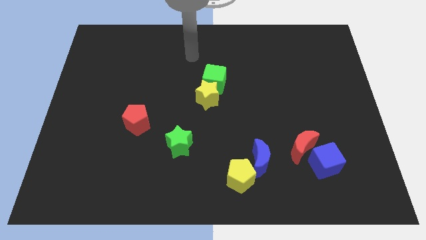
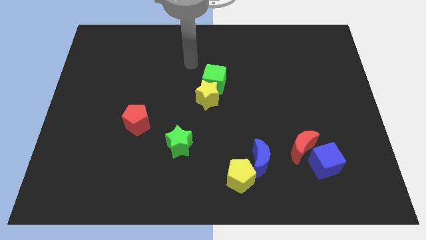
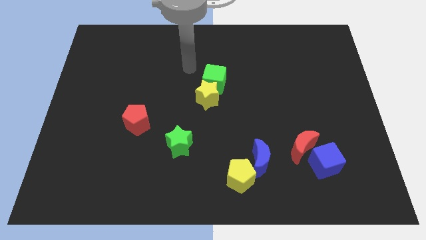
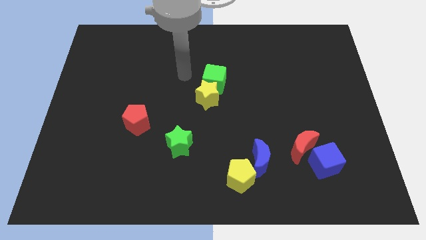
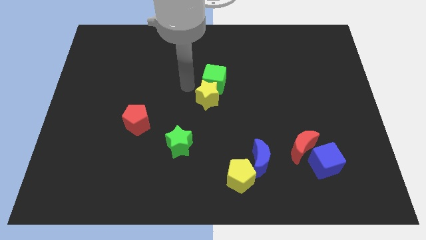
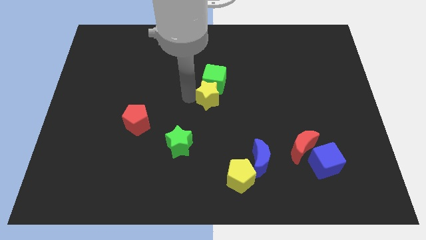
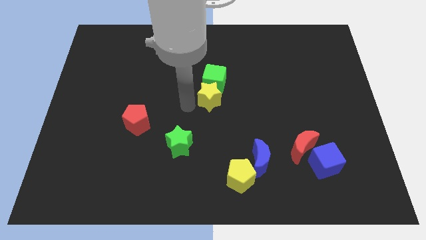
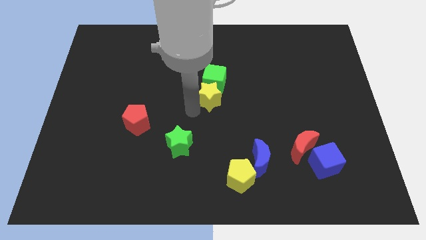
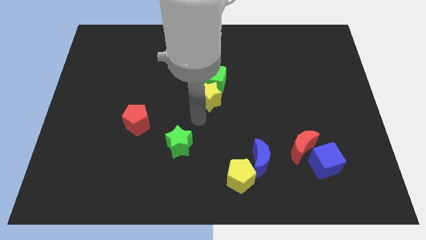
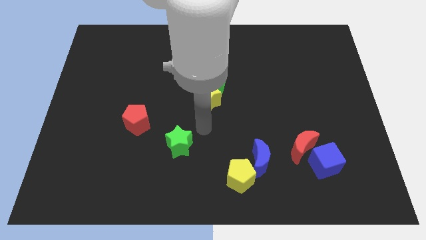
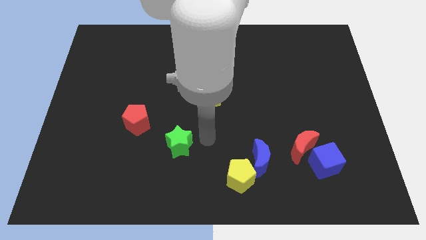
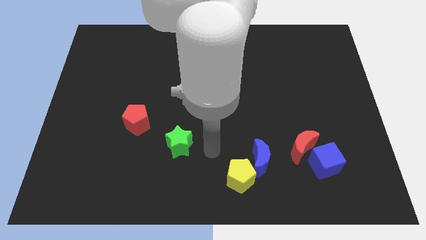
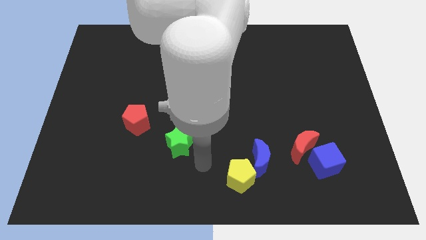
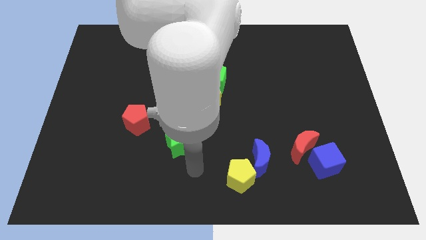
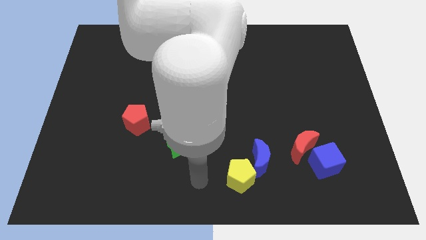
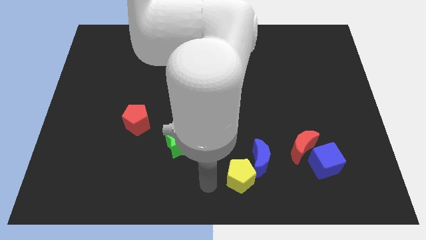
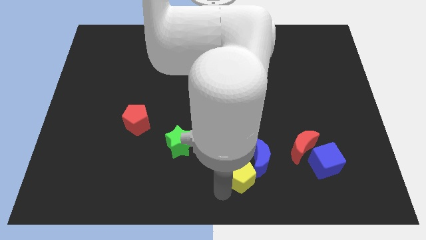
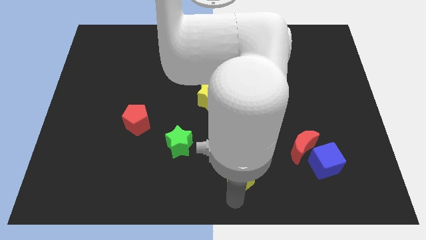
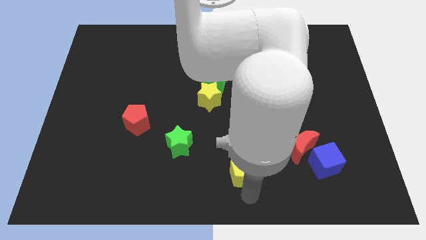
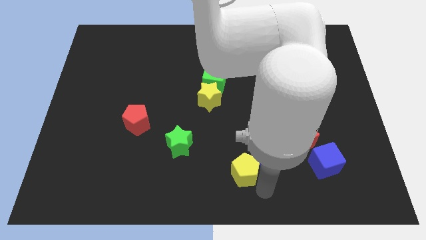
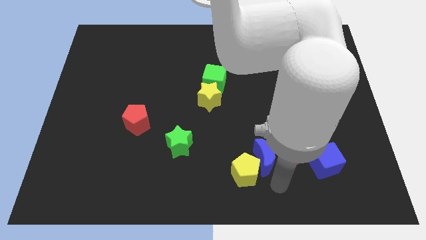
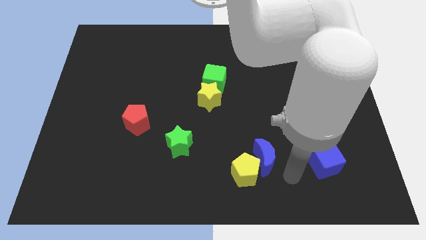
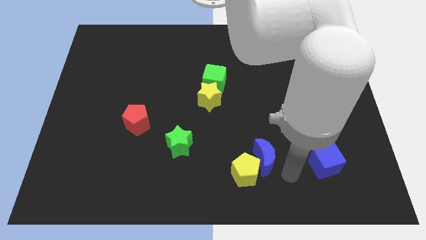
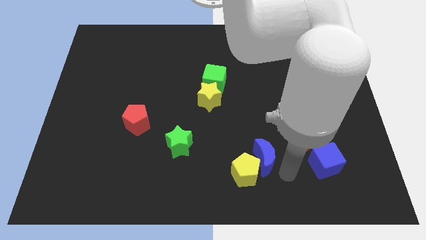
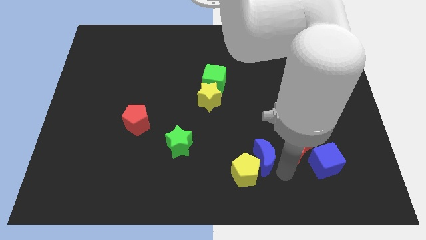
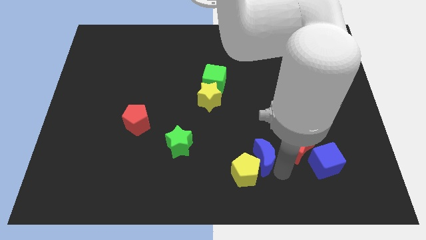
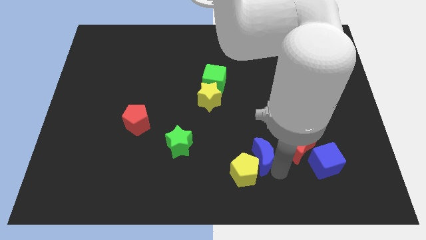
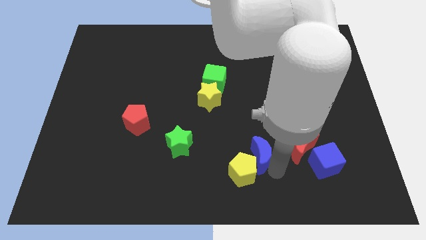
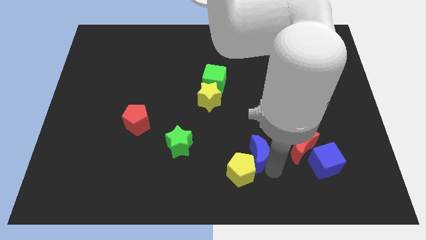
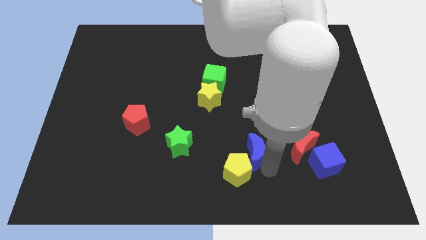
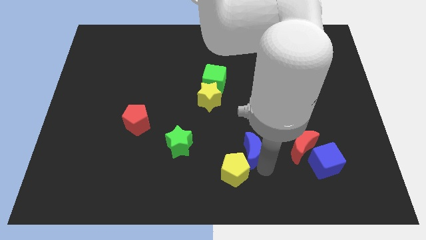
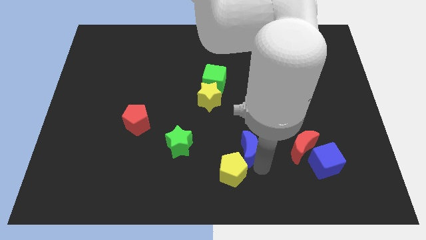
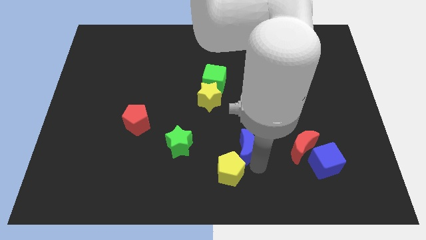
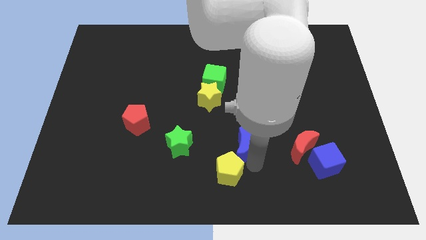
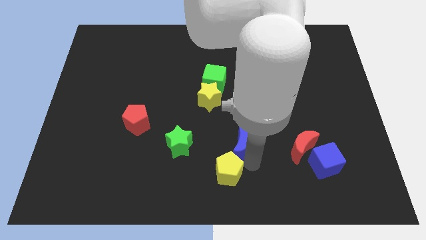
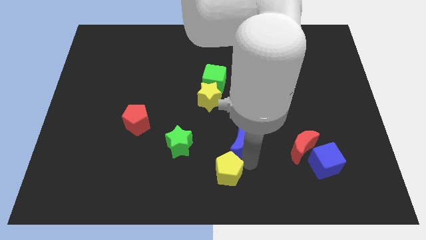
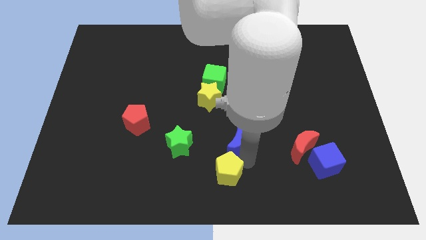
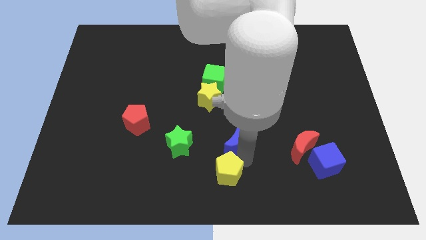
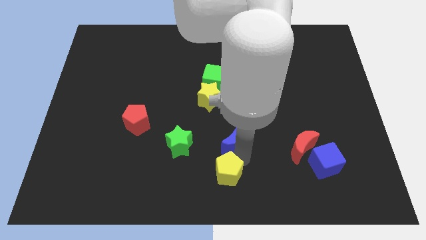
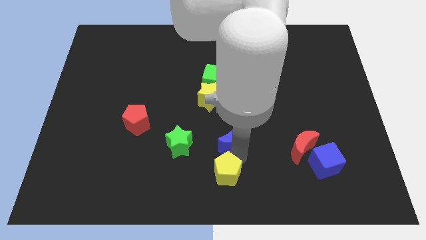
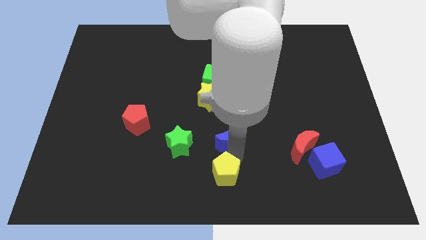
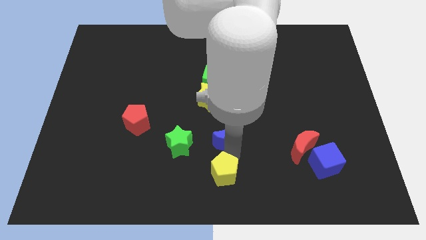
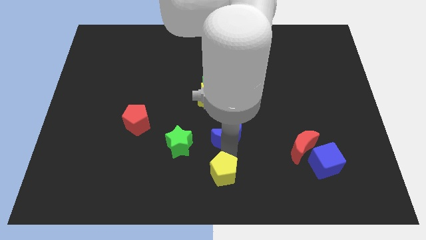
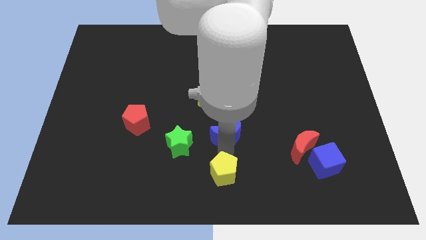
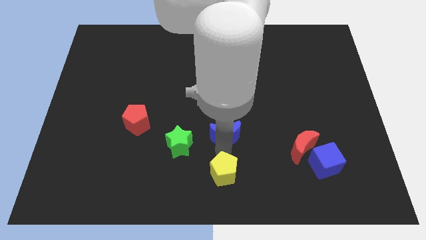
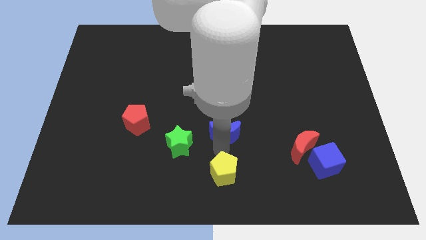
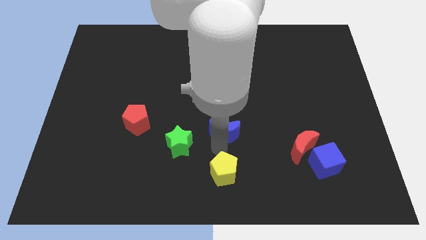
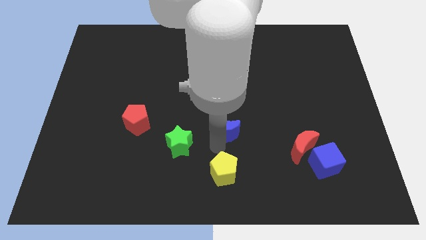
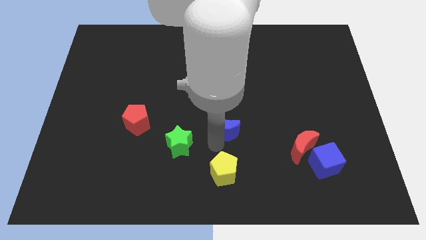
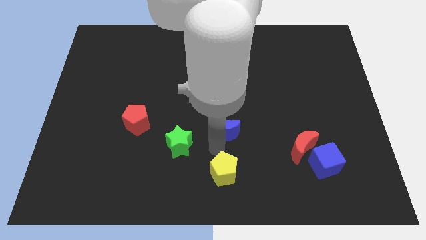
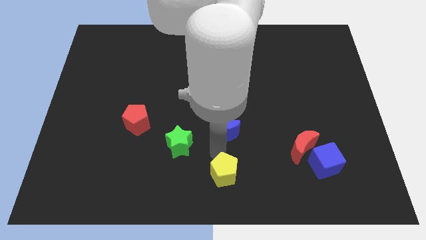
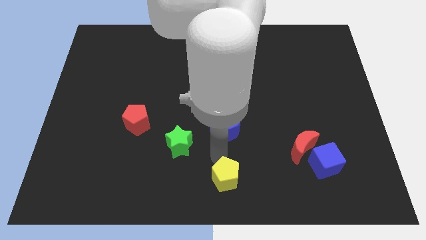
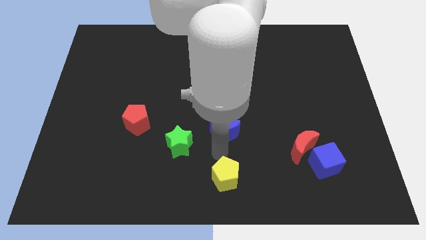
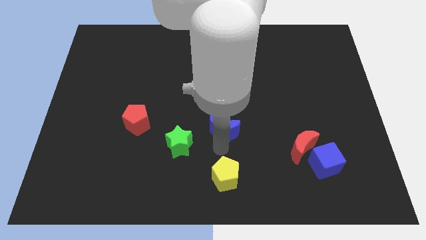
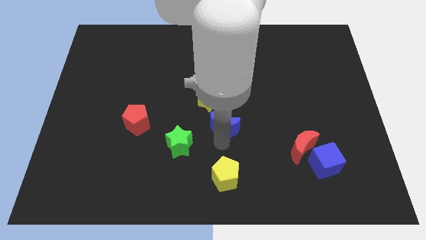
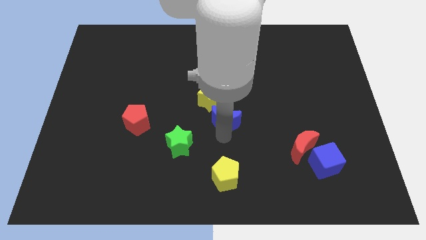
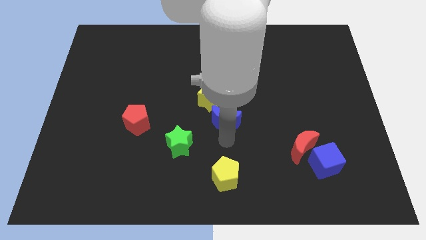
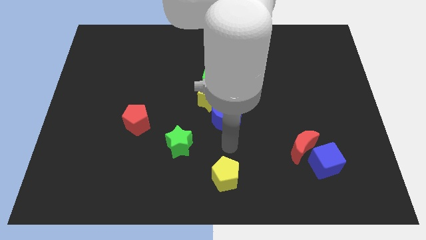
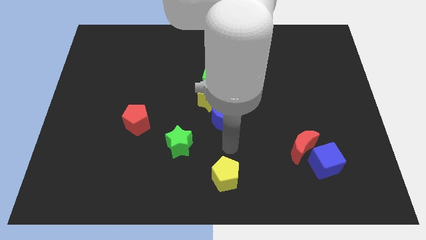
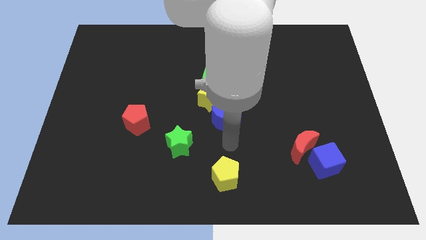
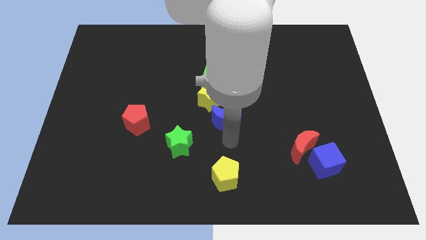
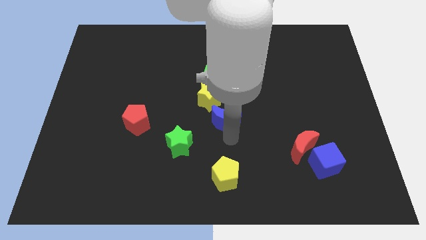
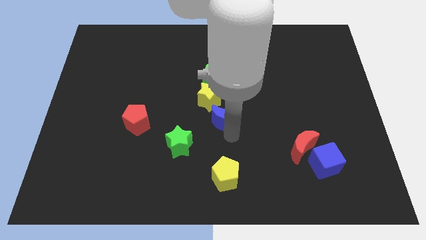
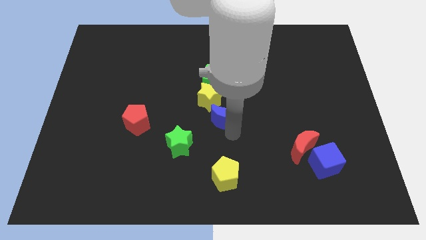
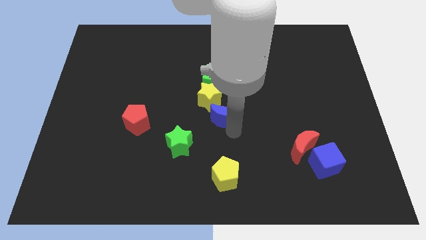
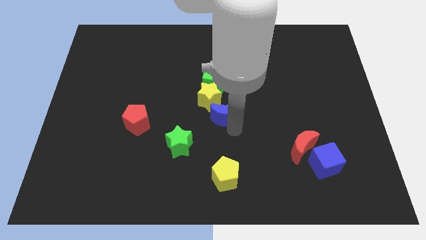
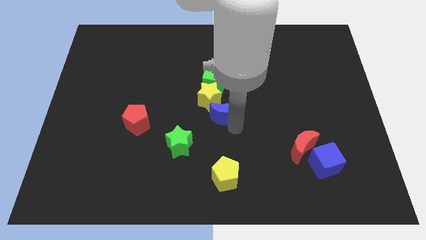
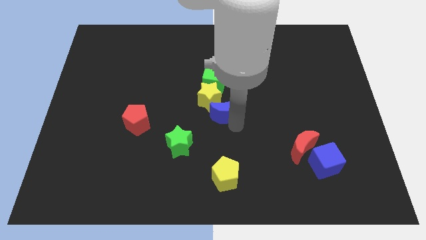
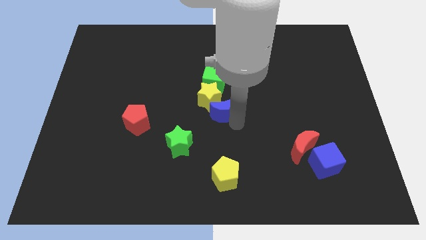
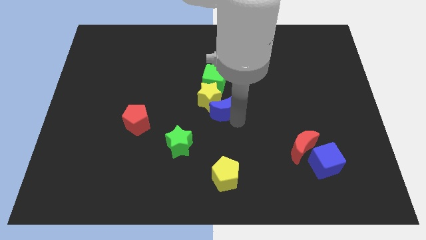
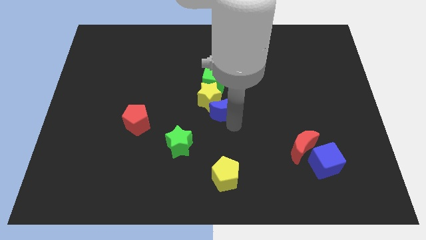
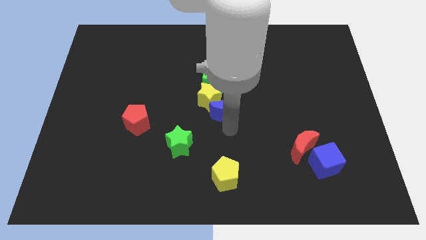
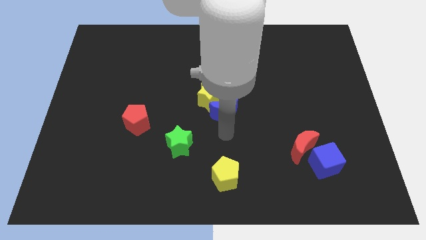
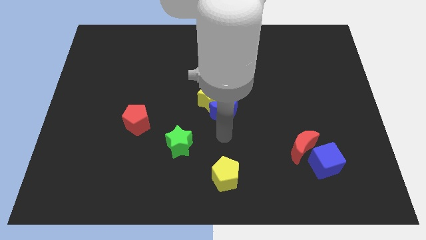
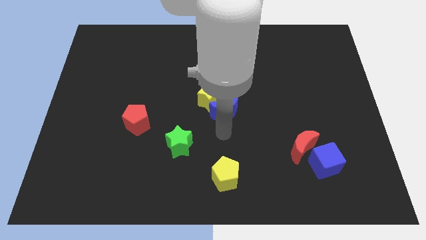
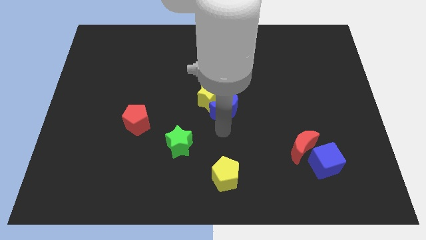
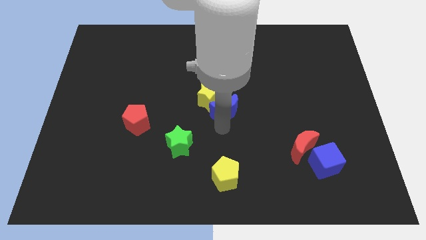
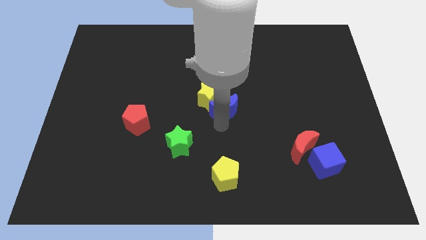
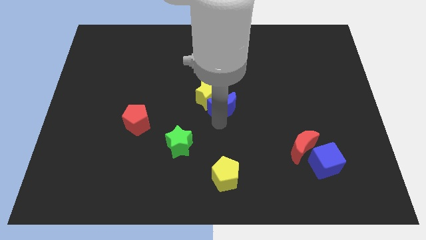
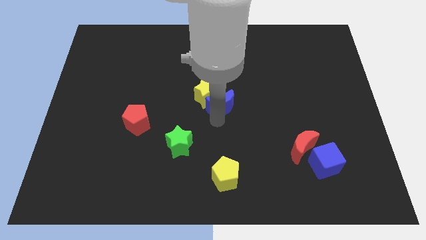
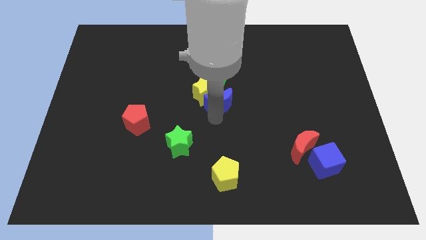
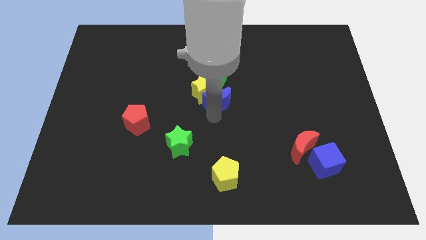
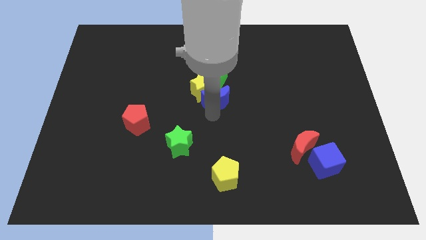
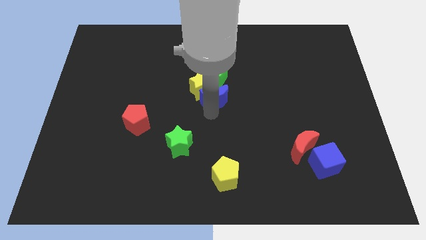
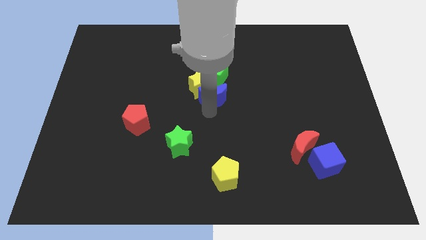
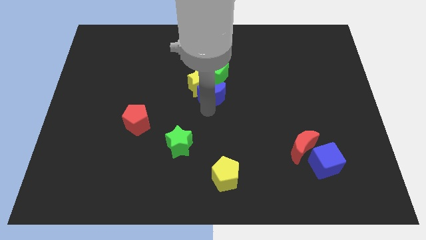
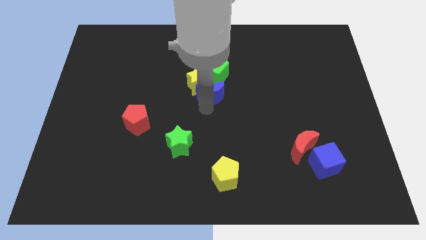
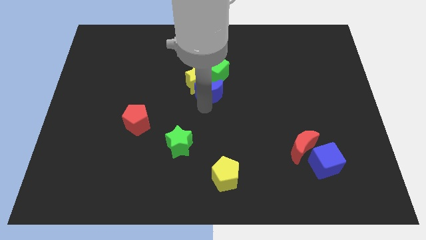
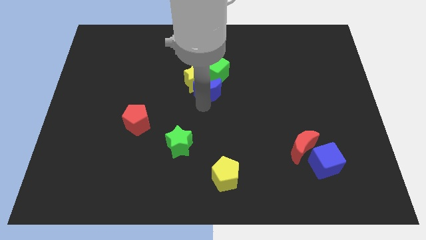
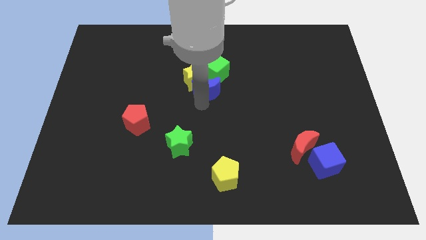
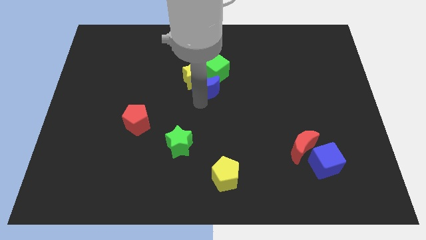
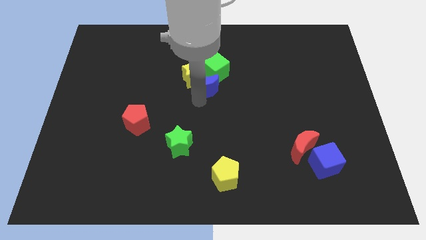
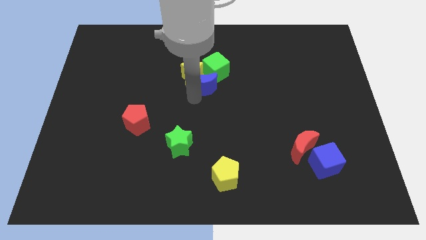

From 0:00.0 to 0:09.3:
push the blue moon towards the green cube
